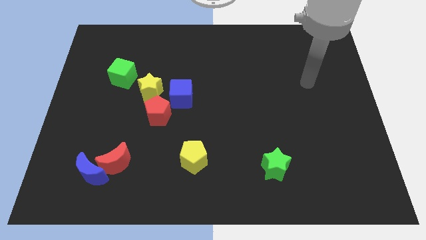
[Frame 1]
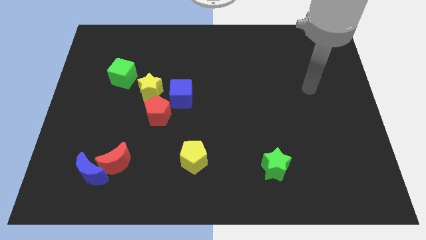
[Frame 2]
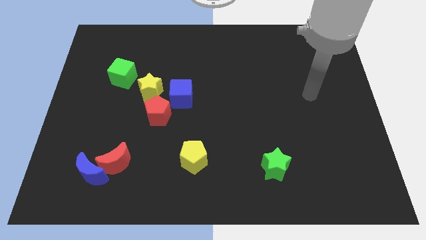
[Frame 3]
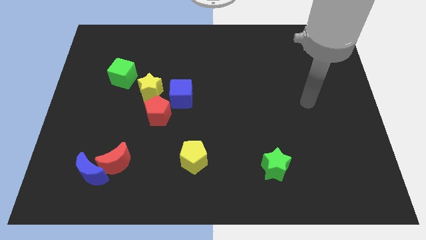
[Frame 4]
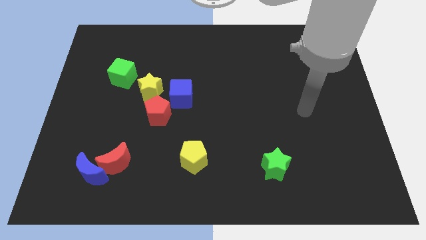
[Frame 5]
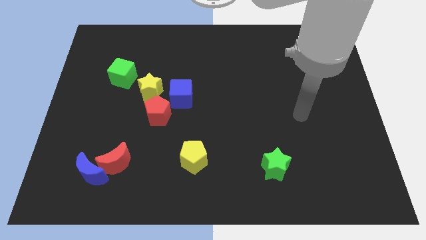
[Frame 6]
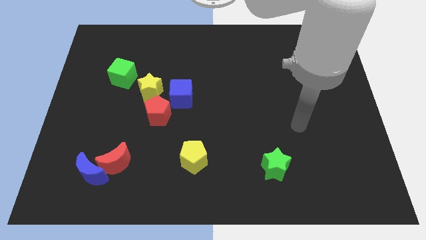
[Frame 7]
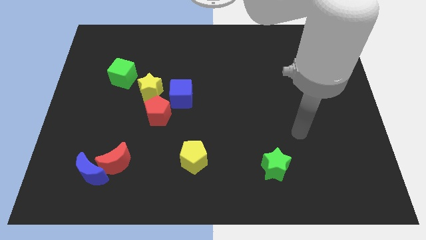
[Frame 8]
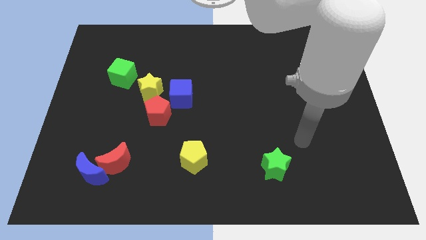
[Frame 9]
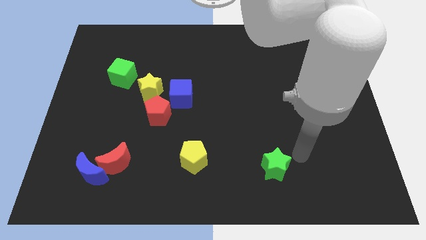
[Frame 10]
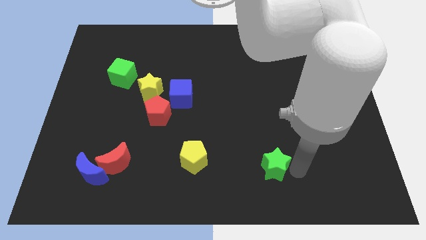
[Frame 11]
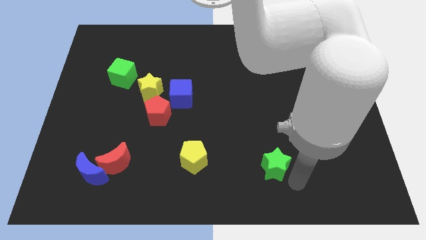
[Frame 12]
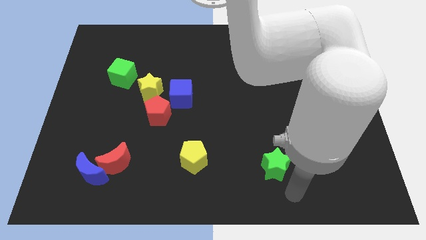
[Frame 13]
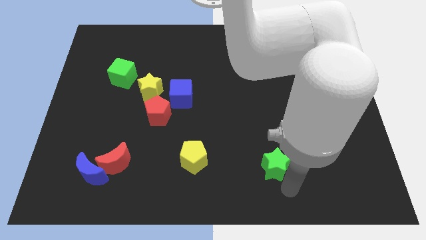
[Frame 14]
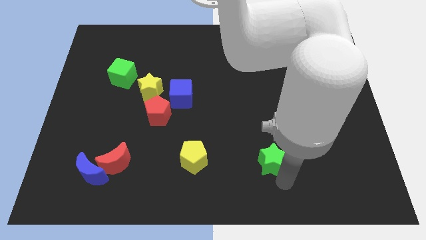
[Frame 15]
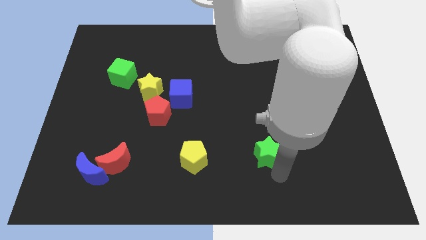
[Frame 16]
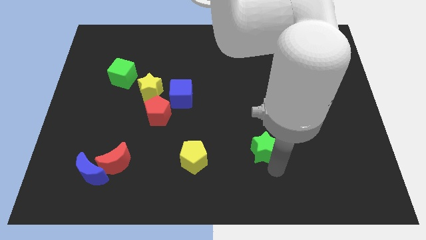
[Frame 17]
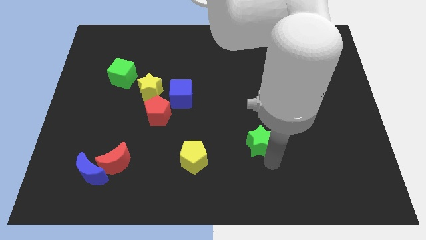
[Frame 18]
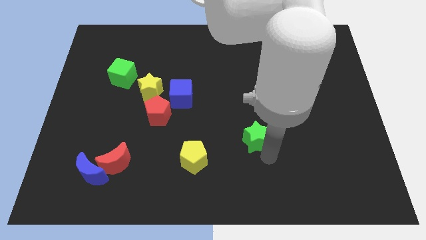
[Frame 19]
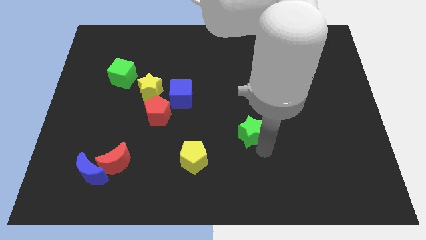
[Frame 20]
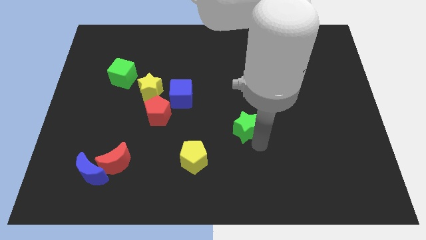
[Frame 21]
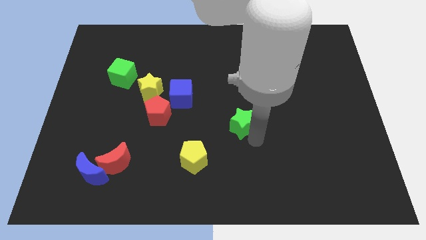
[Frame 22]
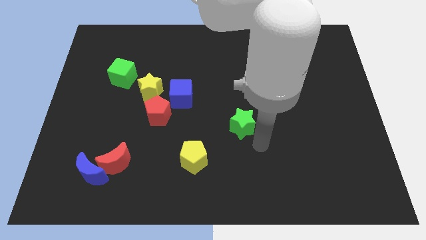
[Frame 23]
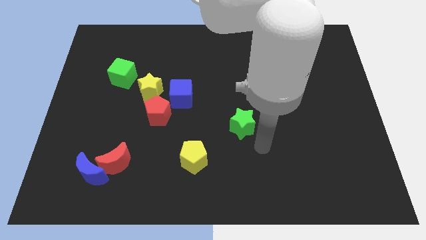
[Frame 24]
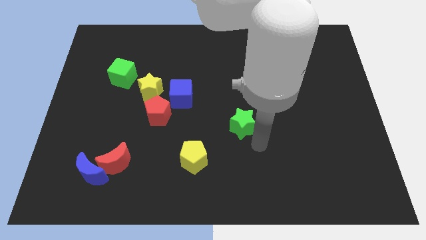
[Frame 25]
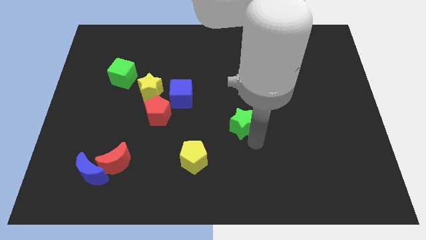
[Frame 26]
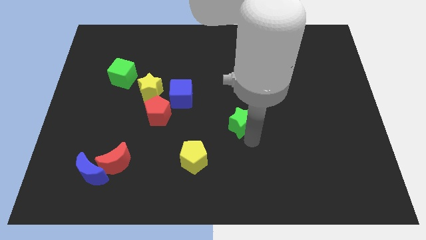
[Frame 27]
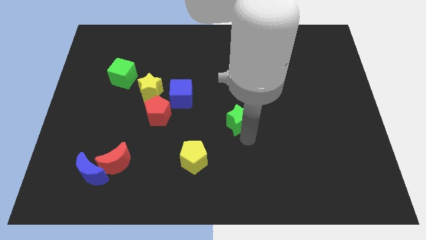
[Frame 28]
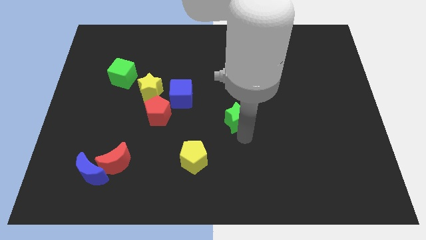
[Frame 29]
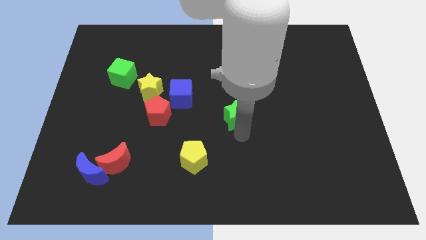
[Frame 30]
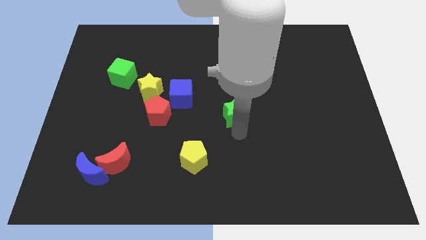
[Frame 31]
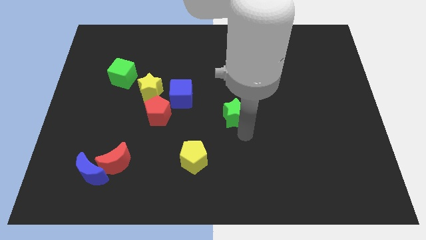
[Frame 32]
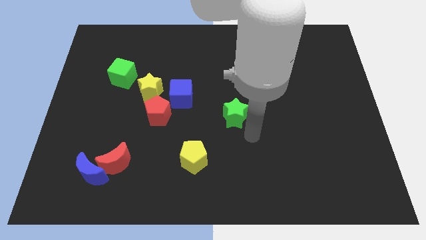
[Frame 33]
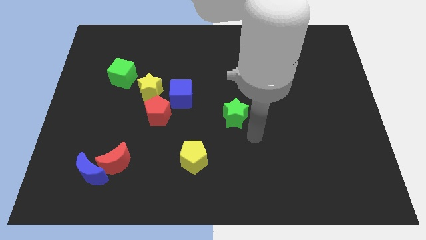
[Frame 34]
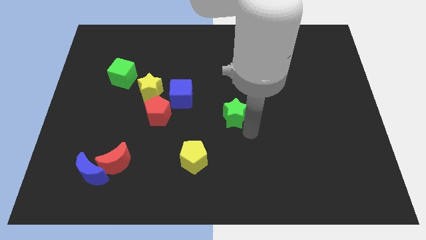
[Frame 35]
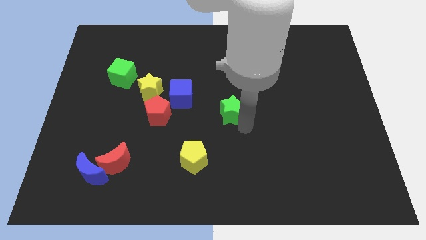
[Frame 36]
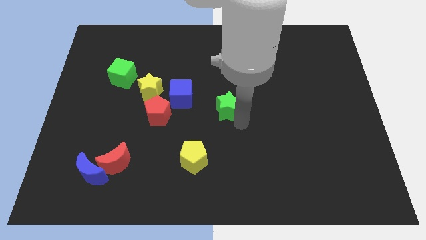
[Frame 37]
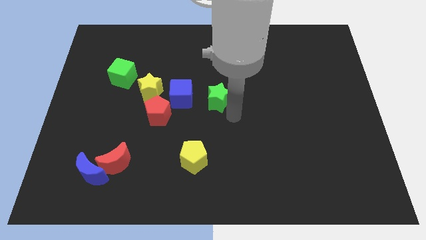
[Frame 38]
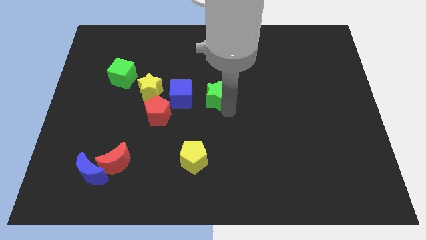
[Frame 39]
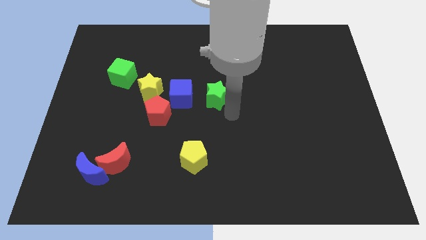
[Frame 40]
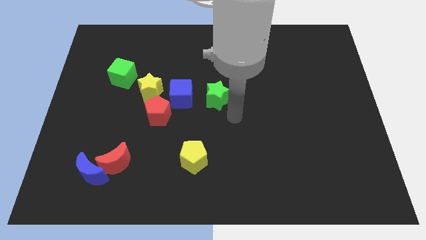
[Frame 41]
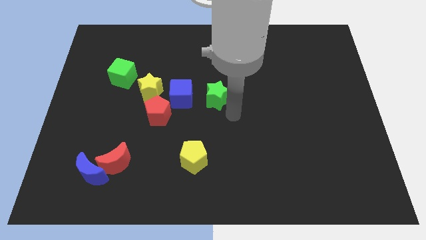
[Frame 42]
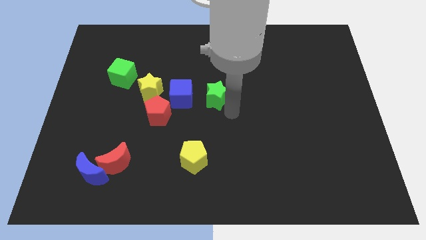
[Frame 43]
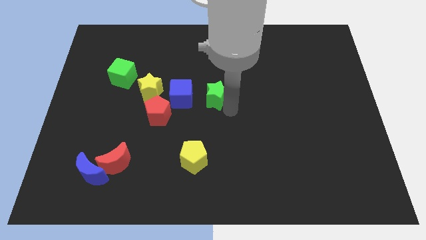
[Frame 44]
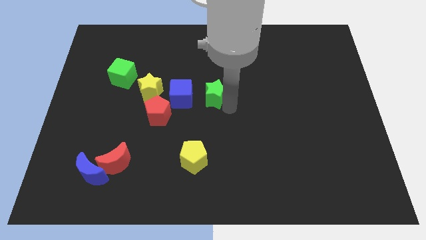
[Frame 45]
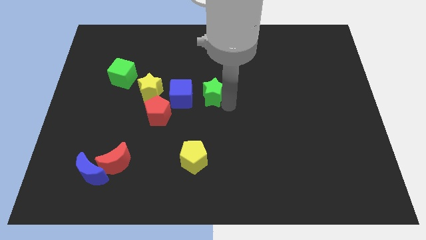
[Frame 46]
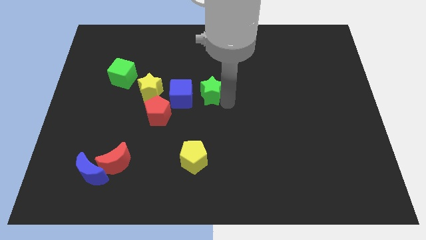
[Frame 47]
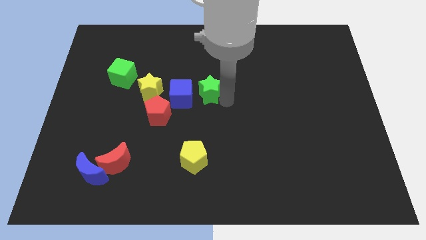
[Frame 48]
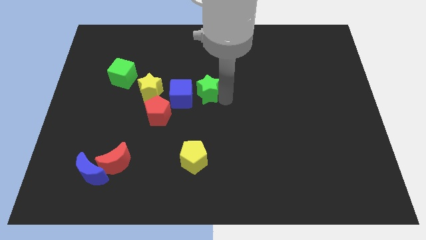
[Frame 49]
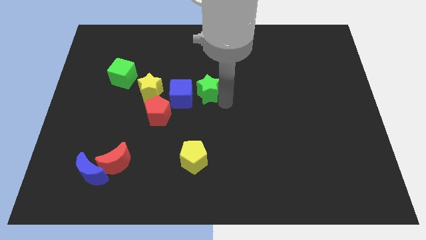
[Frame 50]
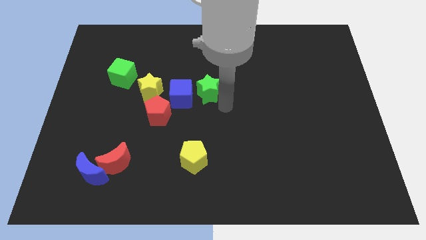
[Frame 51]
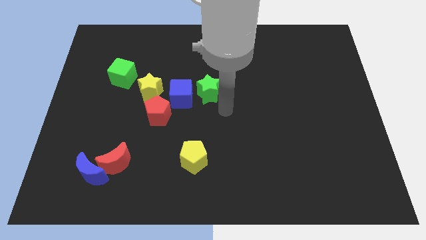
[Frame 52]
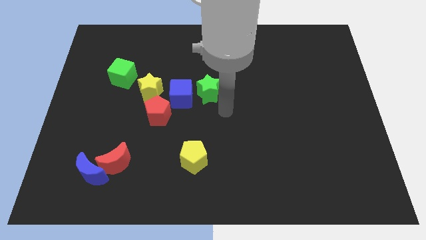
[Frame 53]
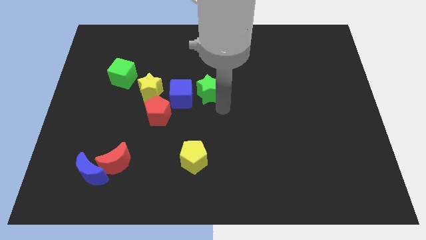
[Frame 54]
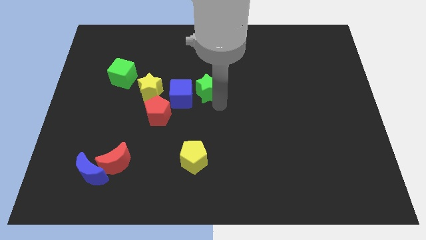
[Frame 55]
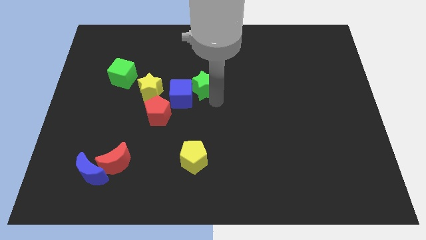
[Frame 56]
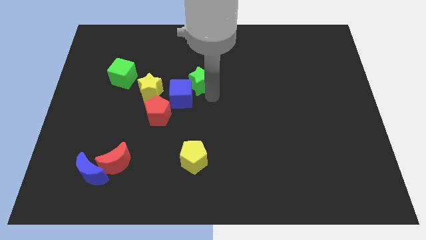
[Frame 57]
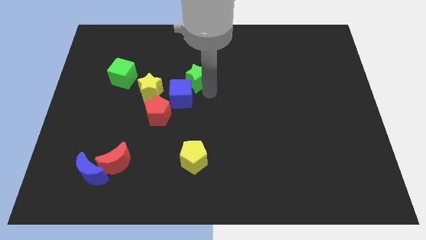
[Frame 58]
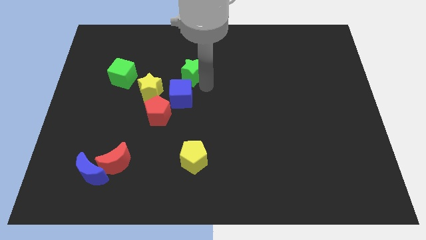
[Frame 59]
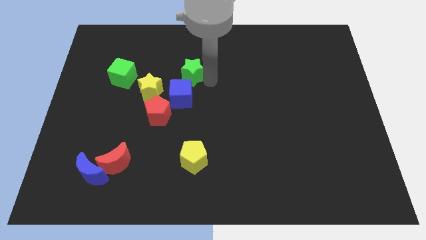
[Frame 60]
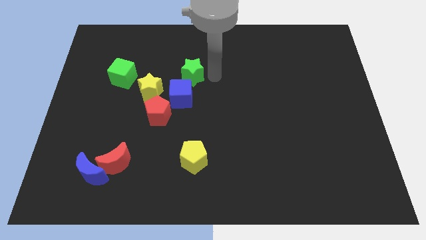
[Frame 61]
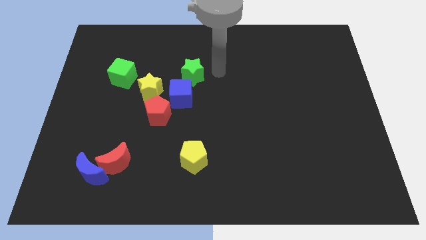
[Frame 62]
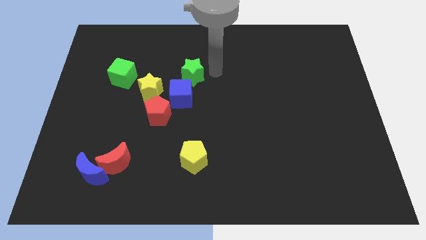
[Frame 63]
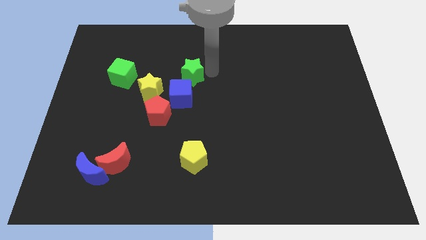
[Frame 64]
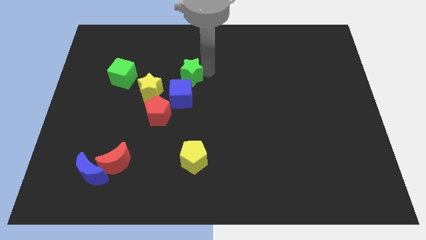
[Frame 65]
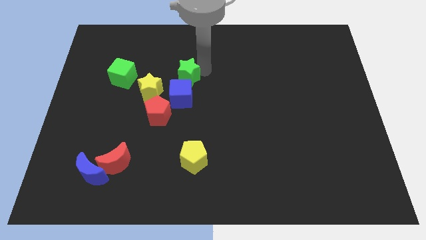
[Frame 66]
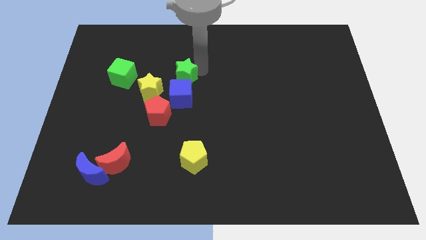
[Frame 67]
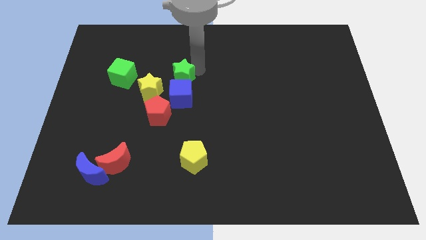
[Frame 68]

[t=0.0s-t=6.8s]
push the green star to the top left of the blue cube
